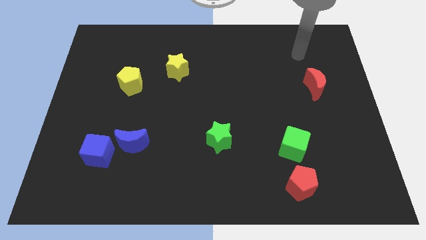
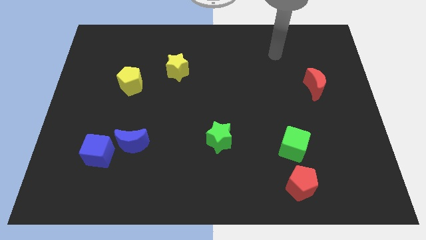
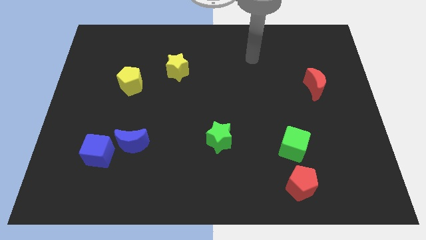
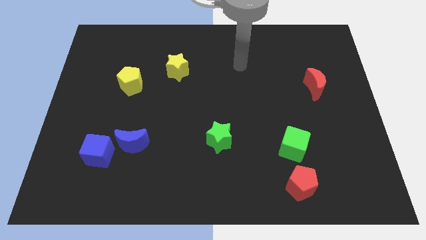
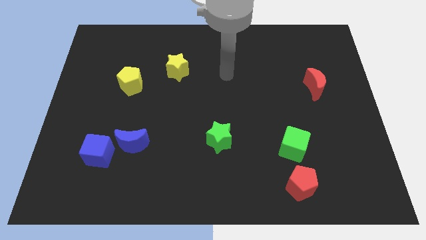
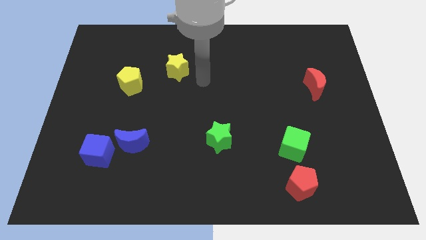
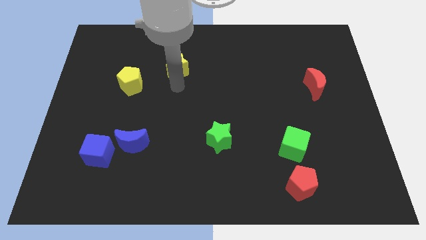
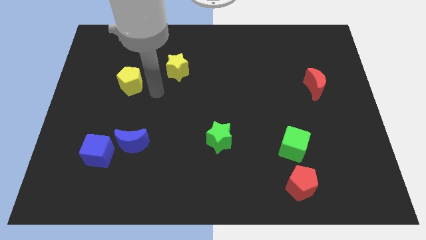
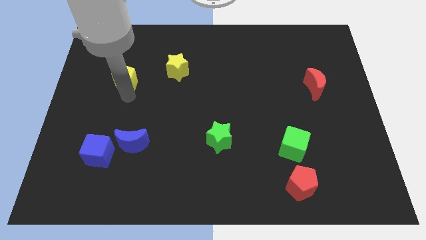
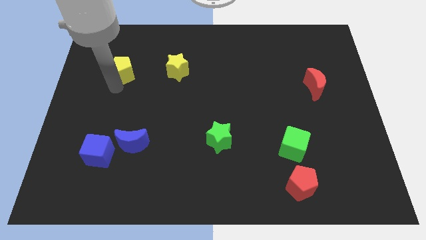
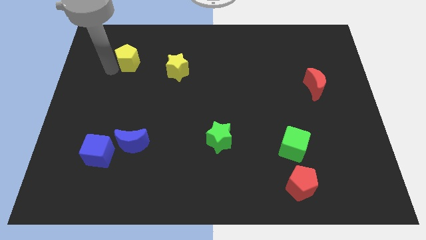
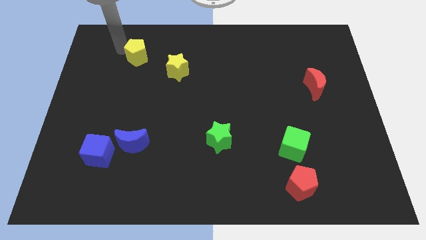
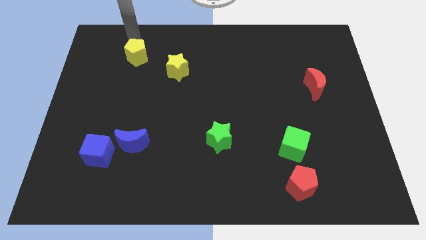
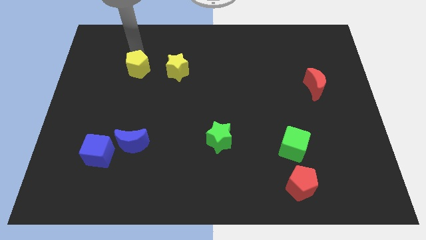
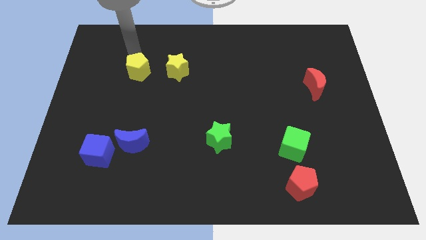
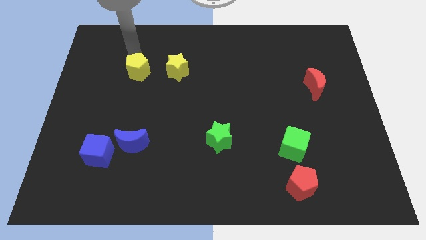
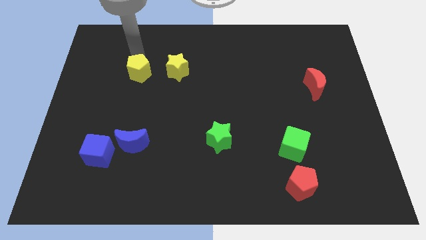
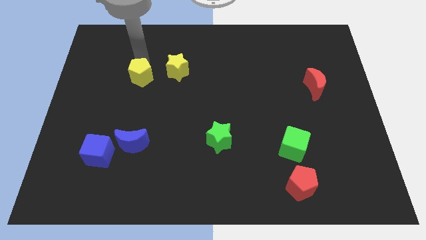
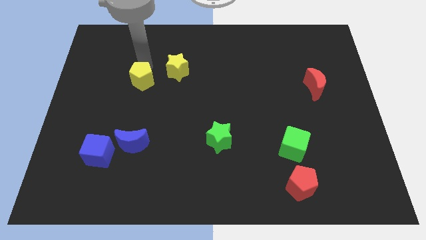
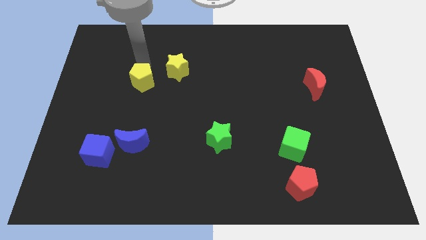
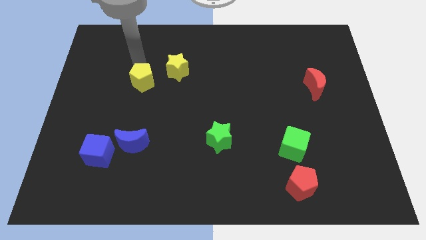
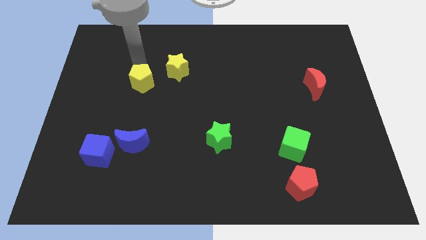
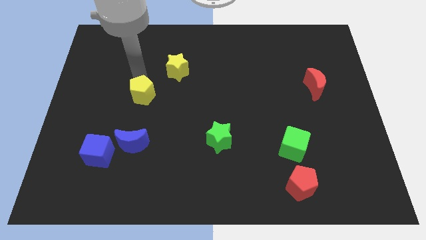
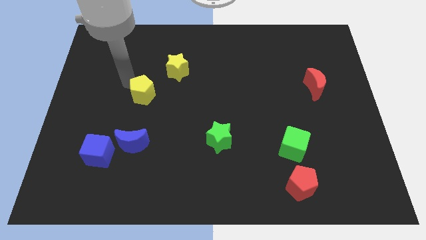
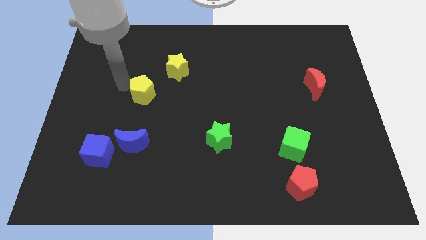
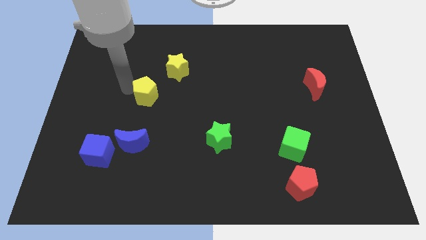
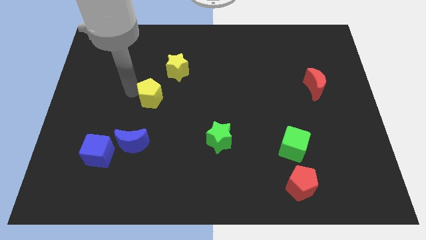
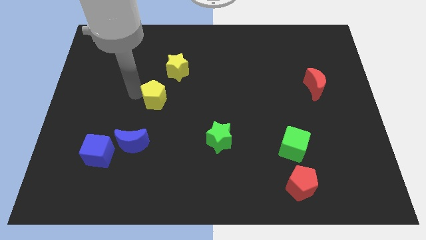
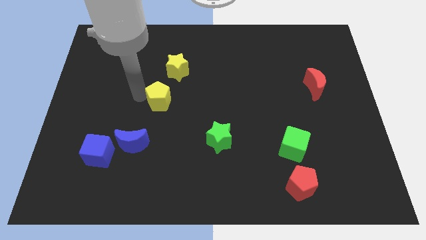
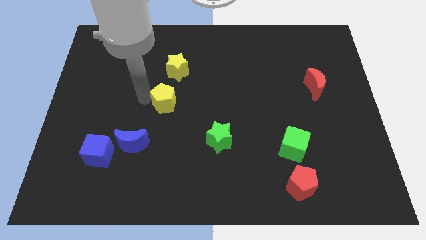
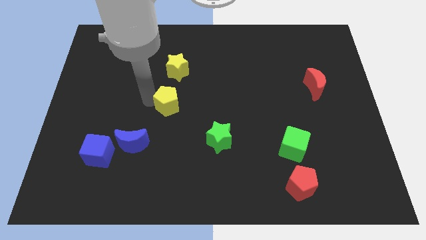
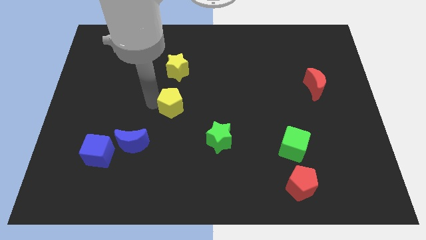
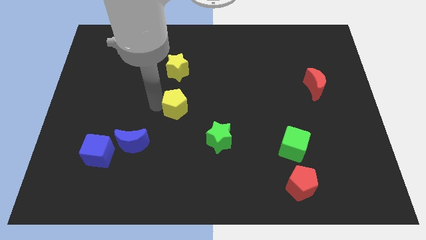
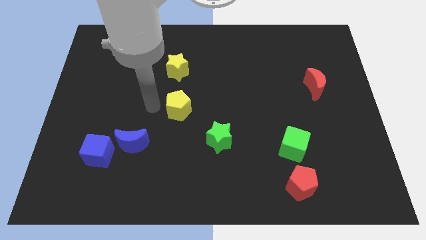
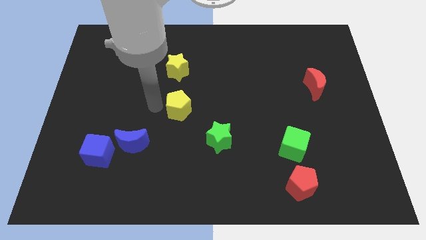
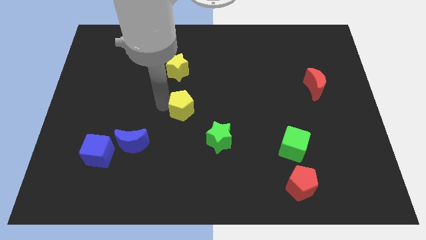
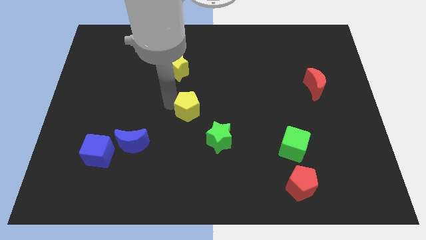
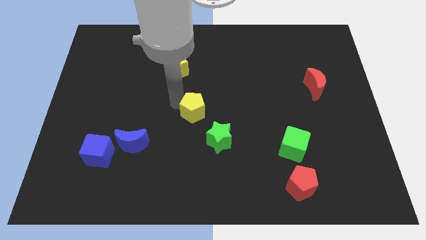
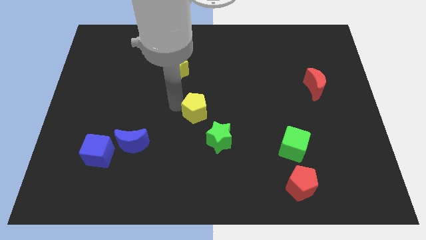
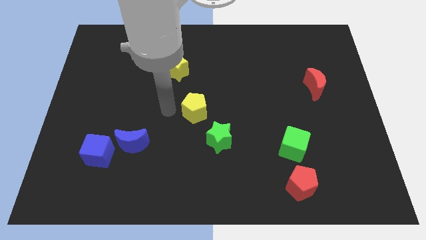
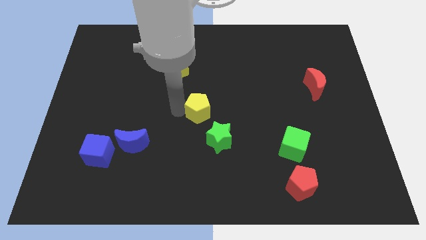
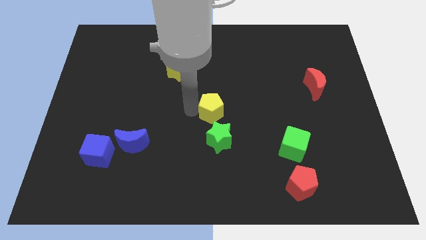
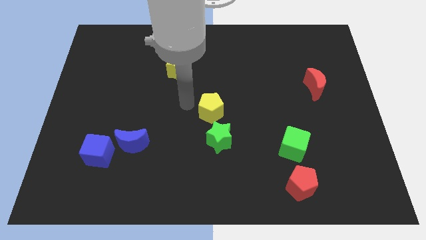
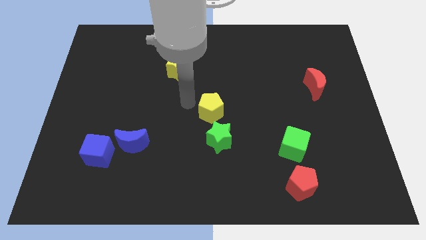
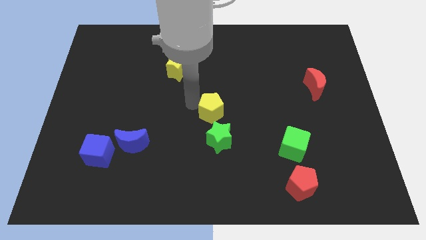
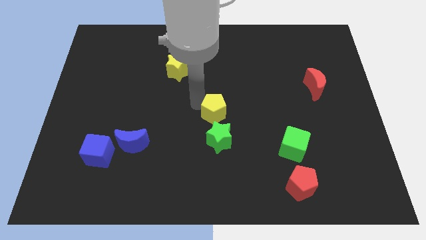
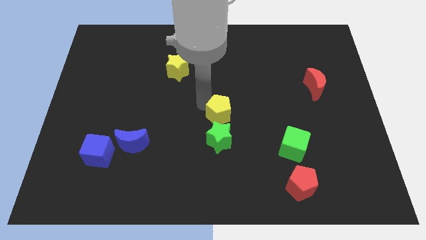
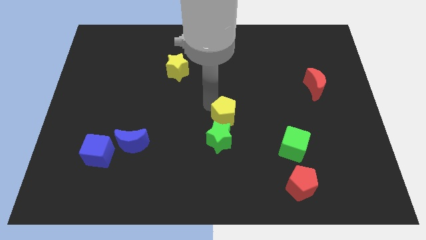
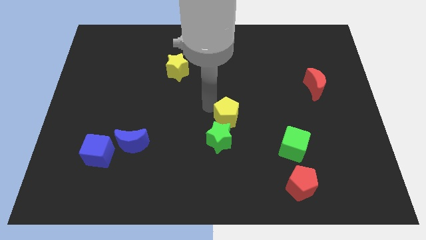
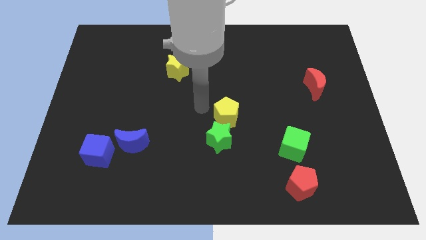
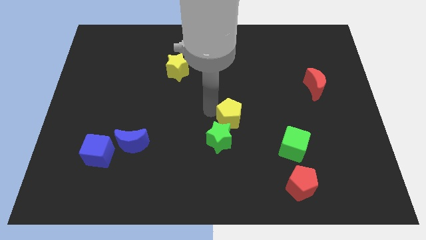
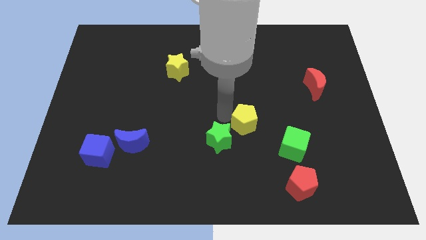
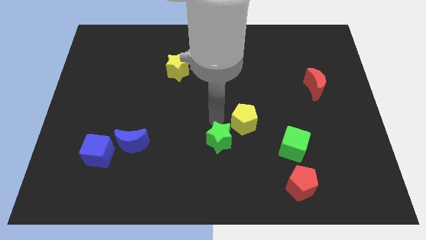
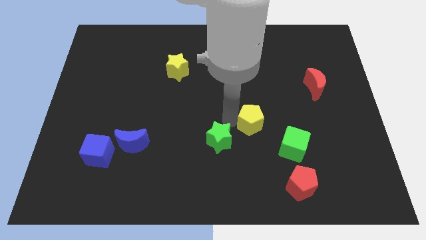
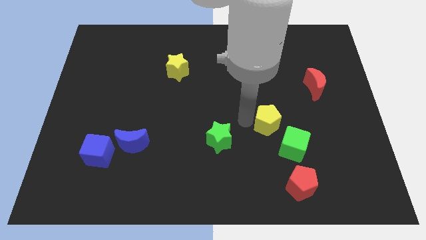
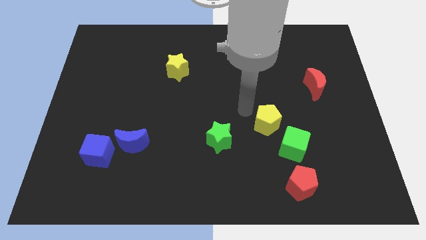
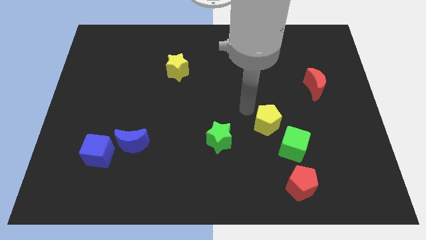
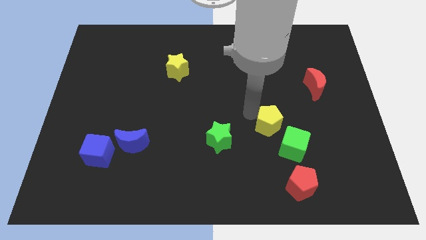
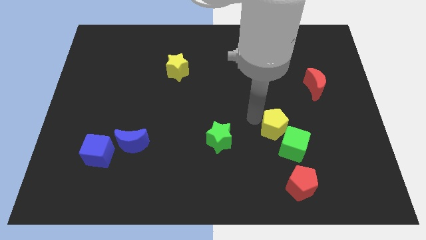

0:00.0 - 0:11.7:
push the yellow pentagon to the top of the red pentagon

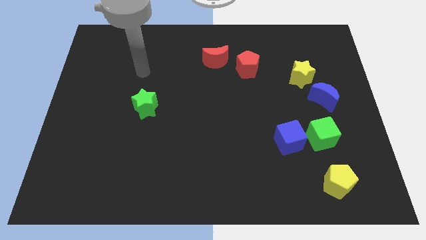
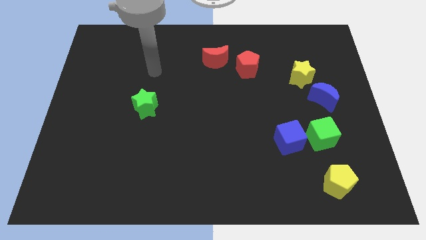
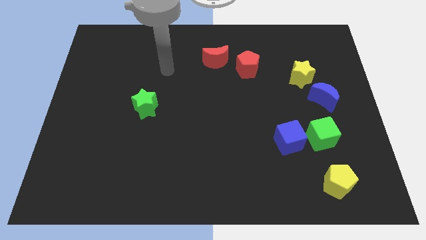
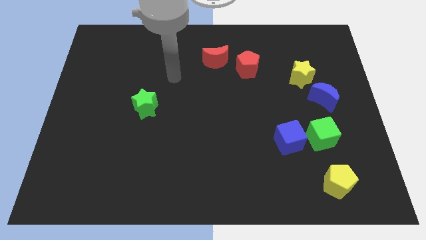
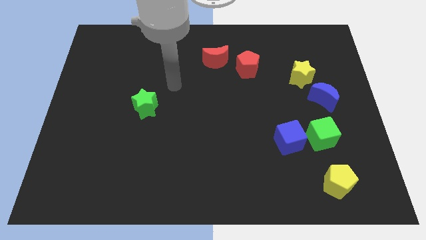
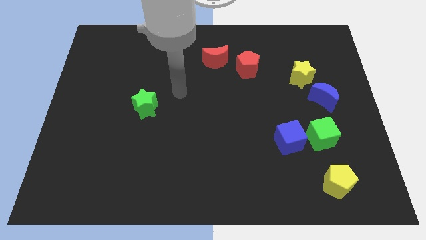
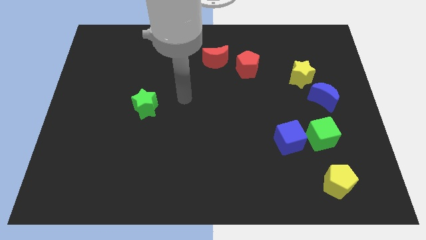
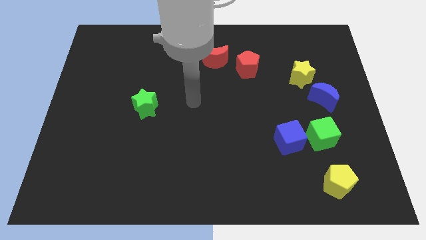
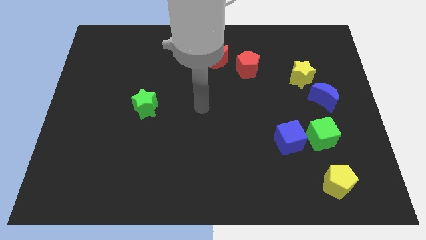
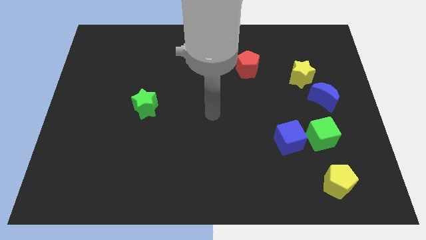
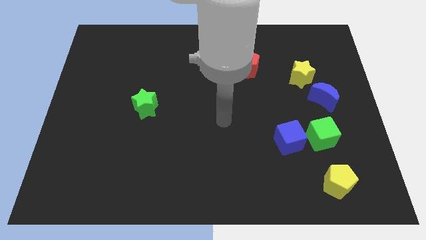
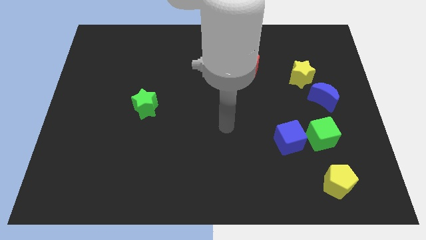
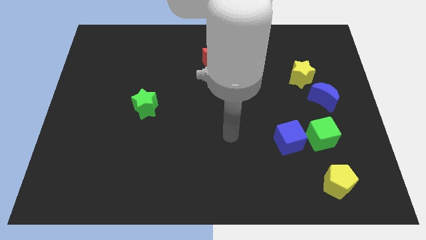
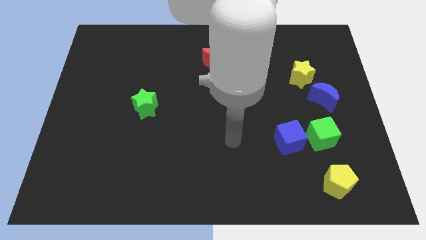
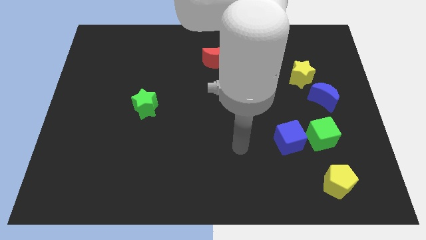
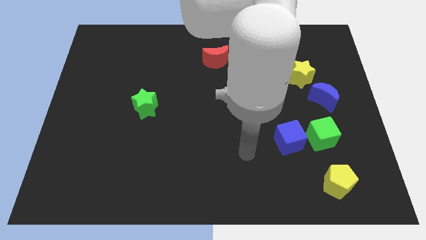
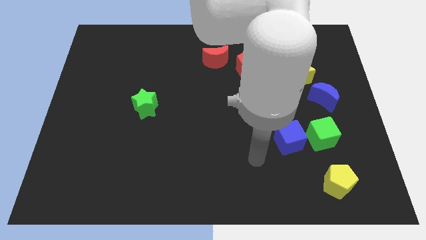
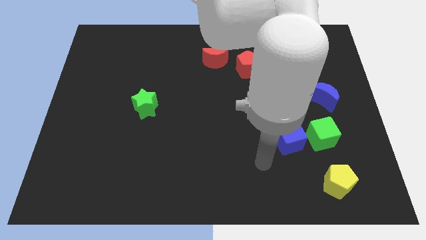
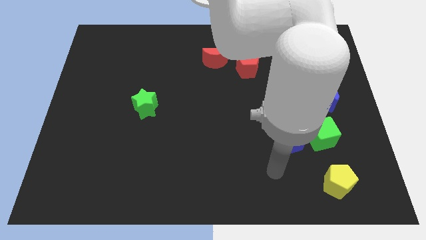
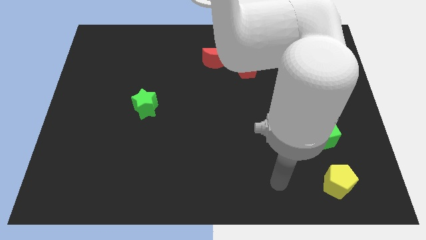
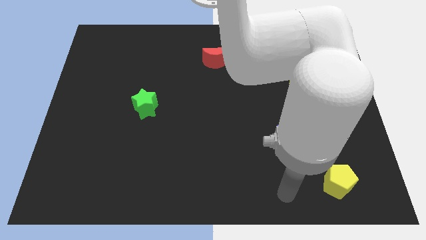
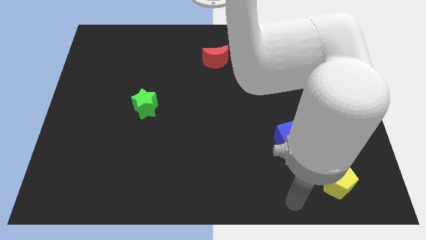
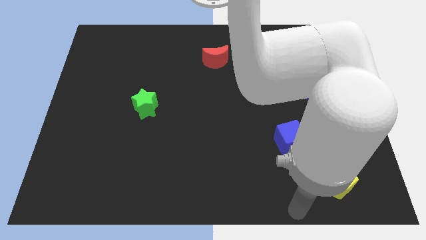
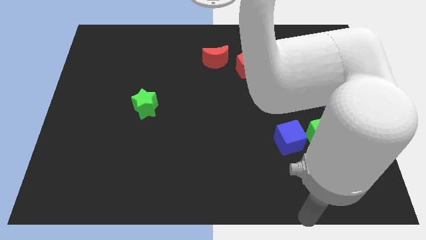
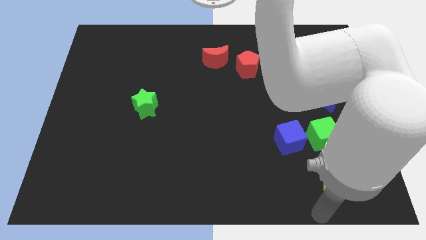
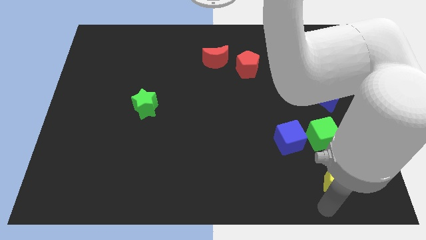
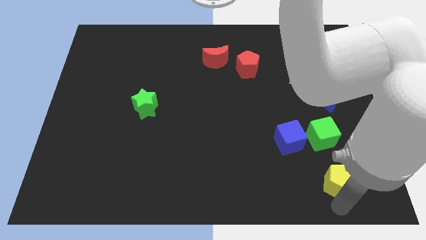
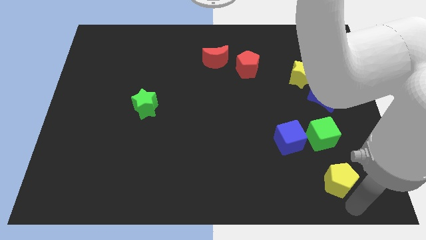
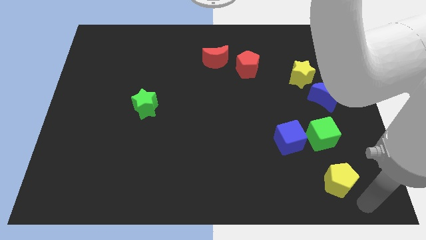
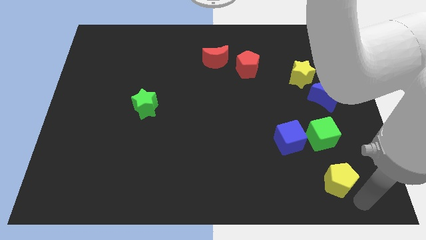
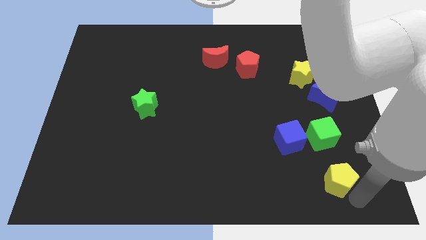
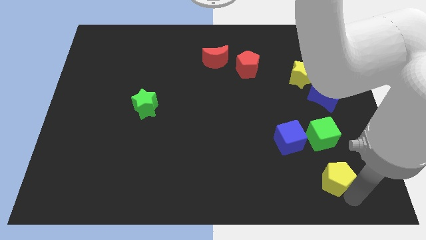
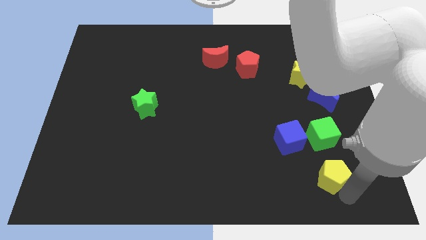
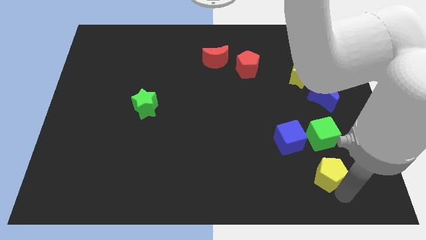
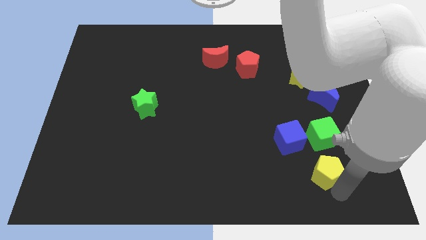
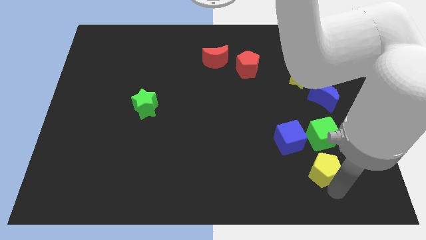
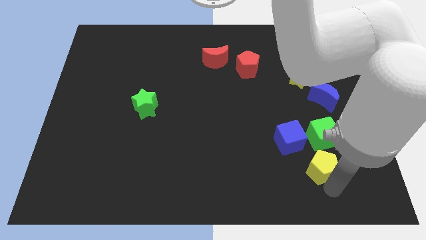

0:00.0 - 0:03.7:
move the yellow pentagon to the bottom left side of the green cube
